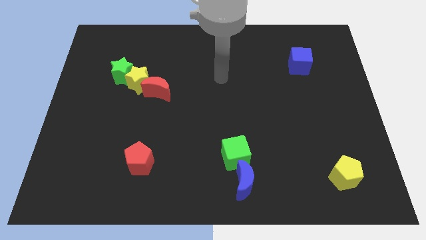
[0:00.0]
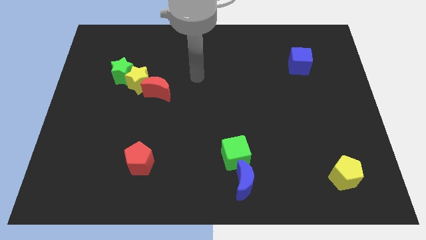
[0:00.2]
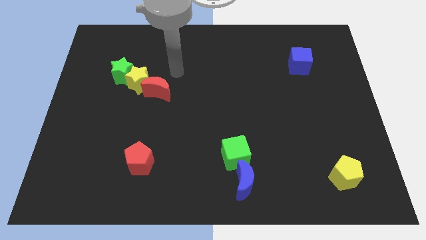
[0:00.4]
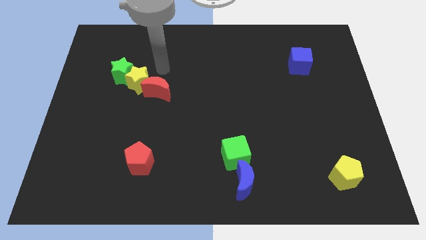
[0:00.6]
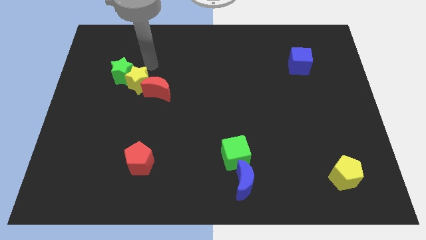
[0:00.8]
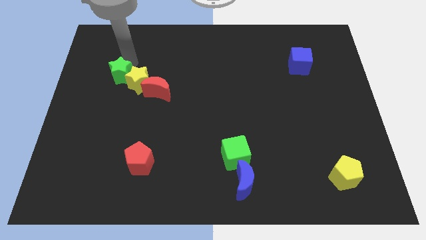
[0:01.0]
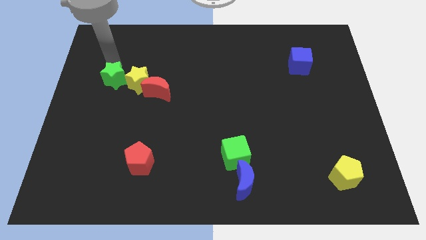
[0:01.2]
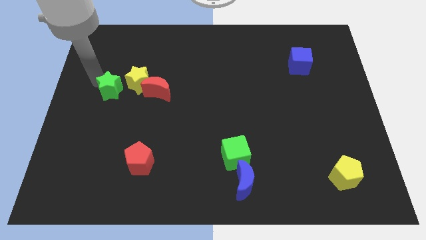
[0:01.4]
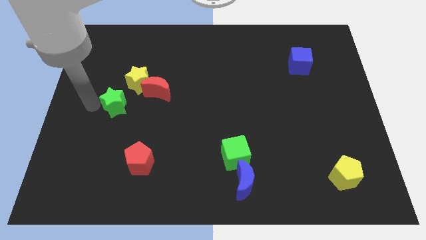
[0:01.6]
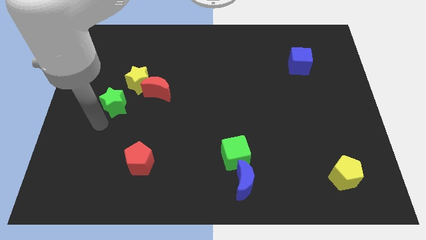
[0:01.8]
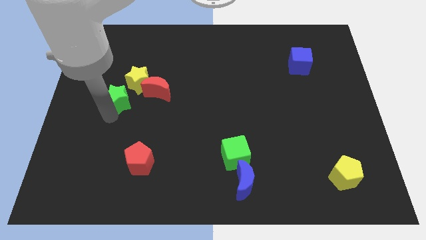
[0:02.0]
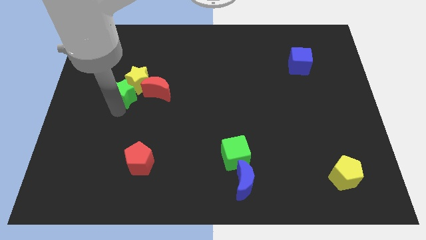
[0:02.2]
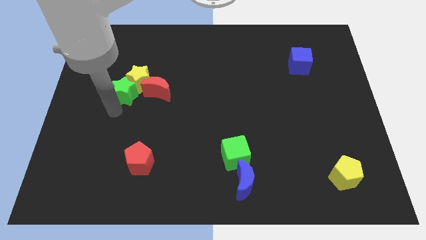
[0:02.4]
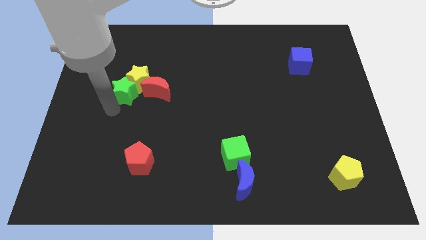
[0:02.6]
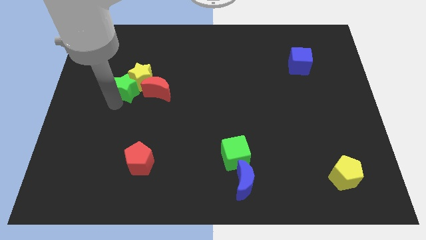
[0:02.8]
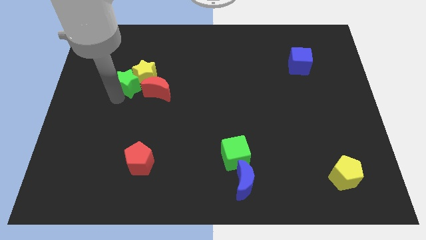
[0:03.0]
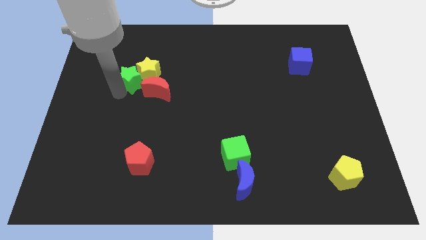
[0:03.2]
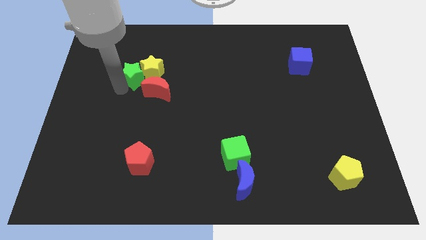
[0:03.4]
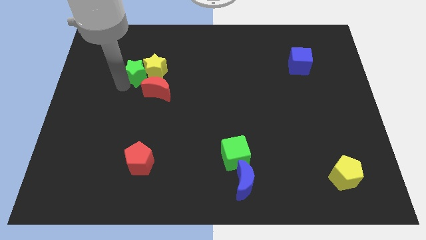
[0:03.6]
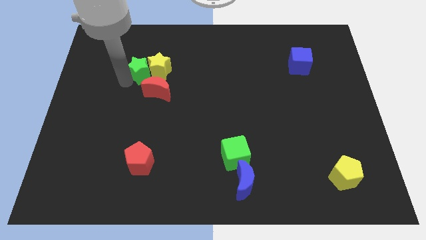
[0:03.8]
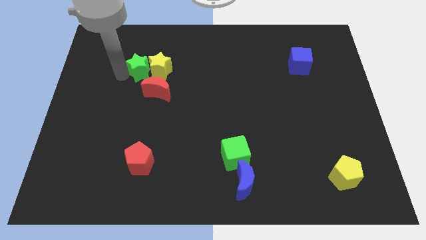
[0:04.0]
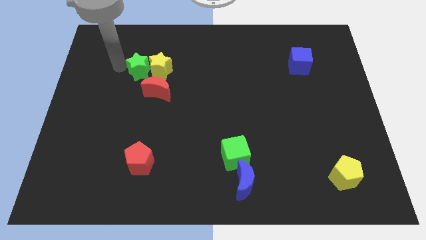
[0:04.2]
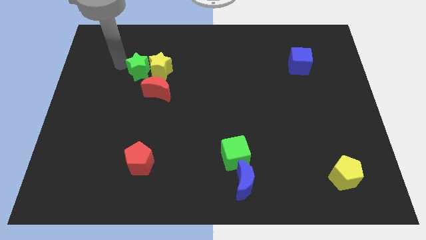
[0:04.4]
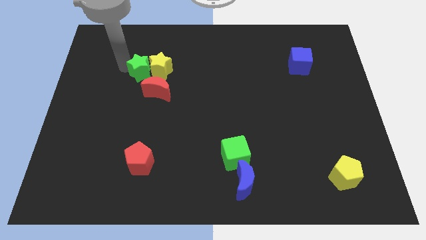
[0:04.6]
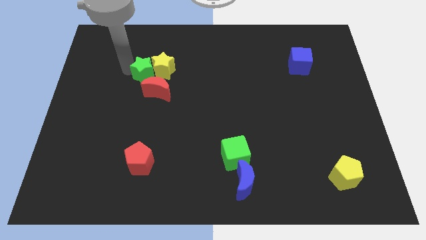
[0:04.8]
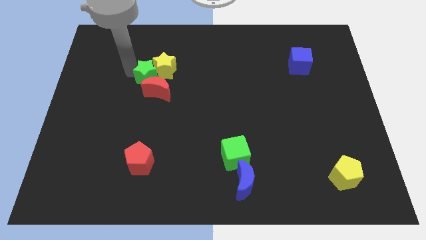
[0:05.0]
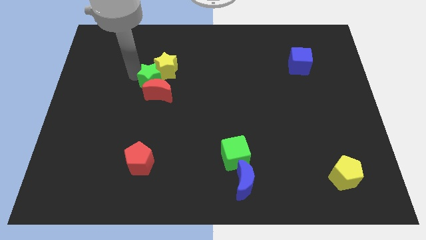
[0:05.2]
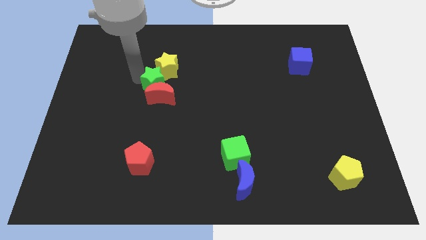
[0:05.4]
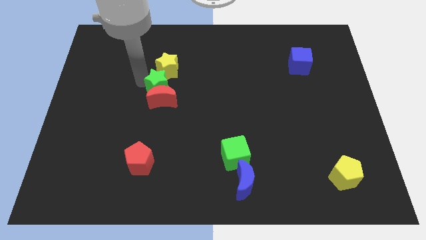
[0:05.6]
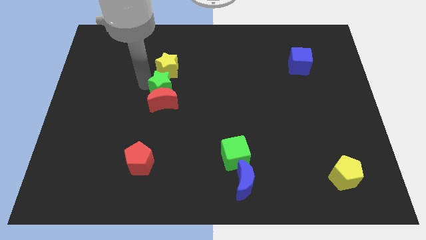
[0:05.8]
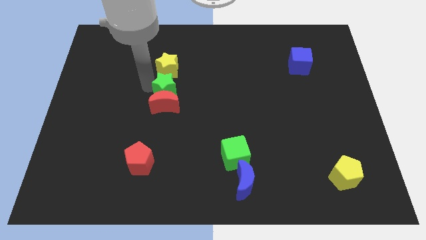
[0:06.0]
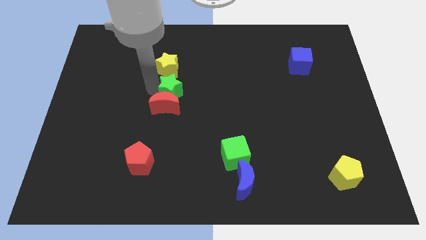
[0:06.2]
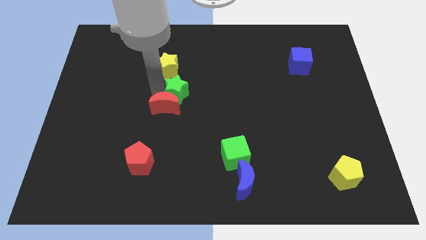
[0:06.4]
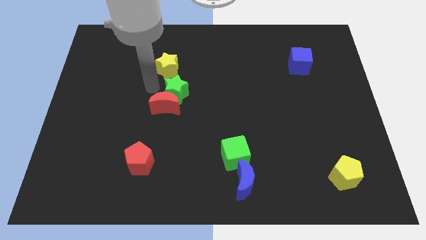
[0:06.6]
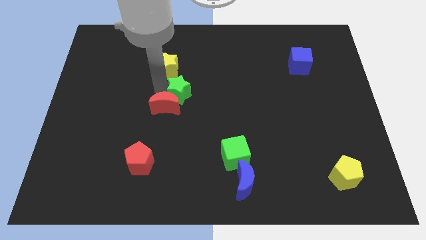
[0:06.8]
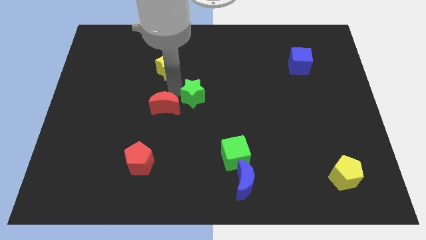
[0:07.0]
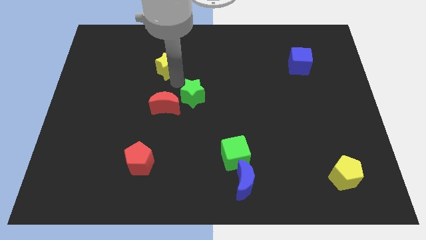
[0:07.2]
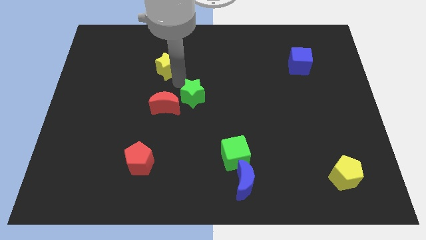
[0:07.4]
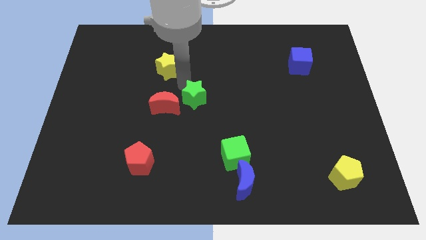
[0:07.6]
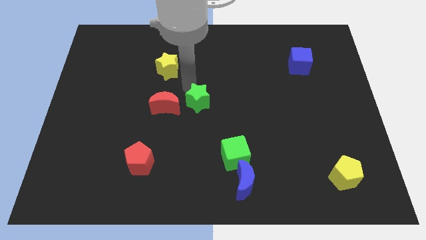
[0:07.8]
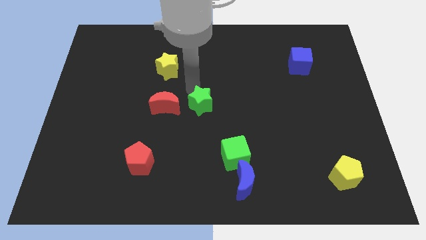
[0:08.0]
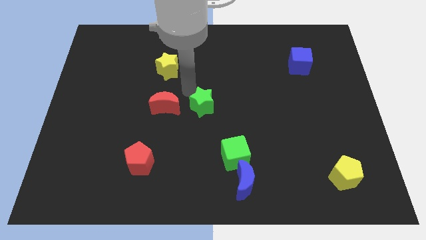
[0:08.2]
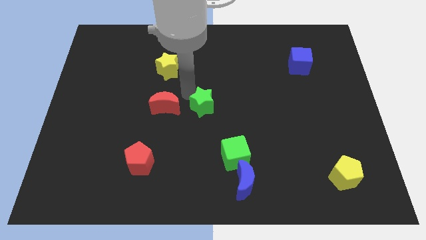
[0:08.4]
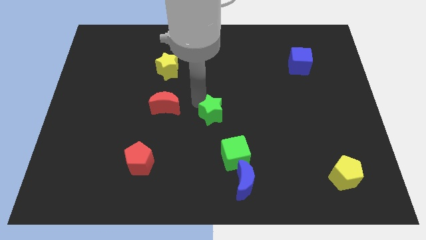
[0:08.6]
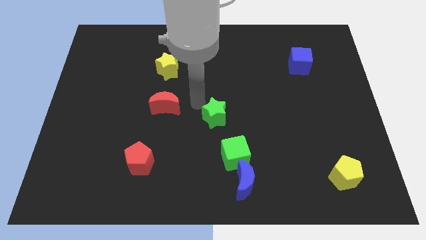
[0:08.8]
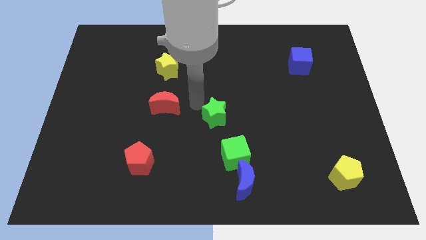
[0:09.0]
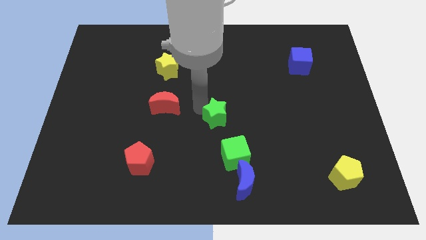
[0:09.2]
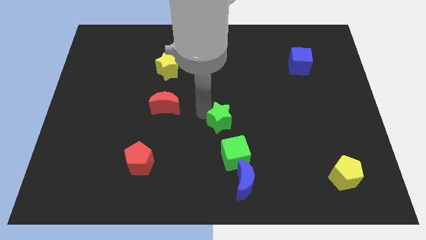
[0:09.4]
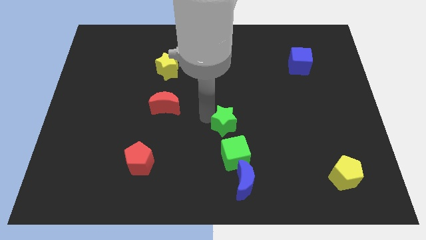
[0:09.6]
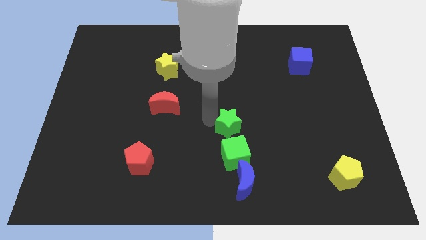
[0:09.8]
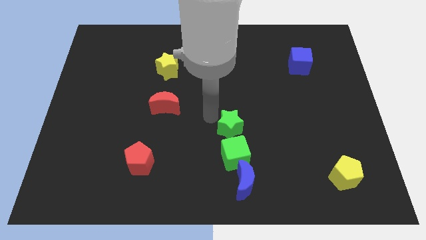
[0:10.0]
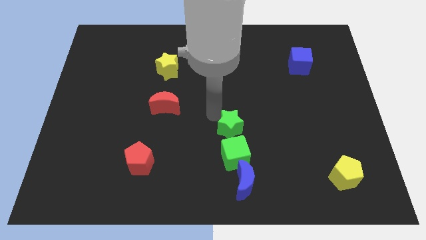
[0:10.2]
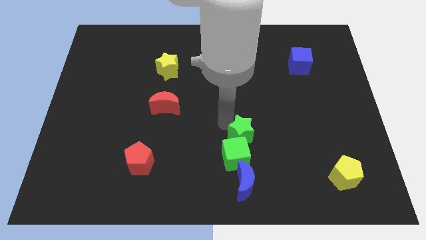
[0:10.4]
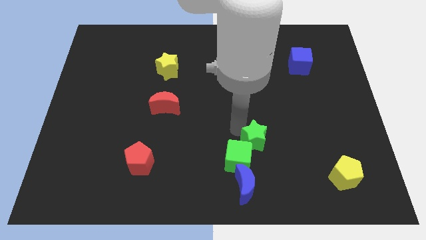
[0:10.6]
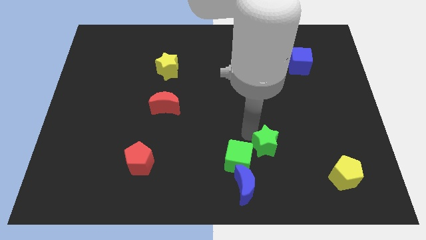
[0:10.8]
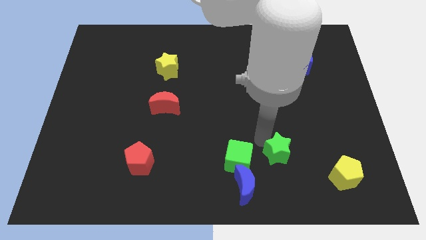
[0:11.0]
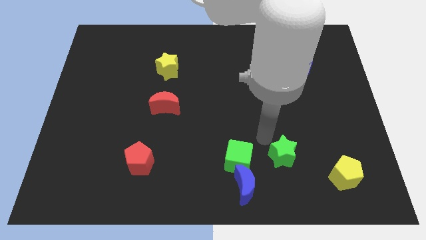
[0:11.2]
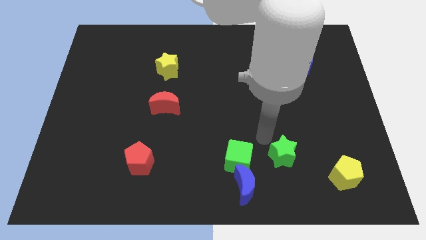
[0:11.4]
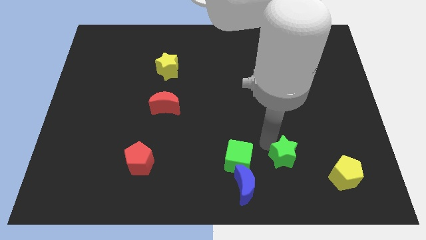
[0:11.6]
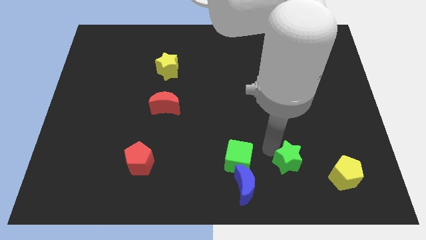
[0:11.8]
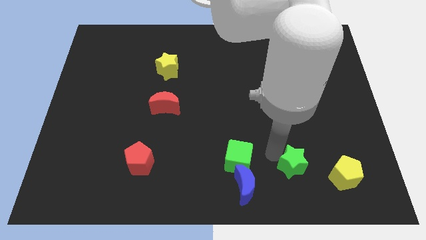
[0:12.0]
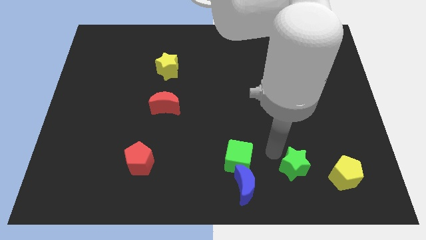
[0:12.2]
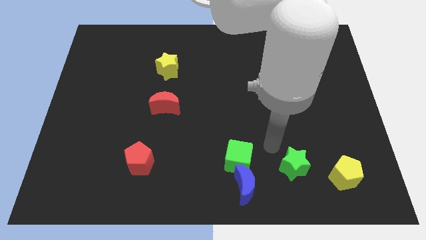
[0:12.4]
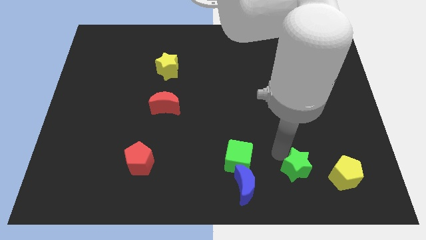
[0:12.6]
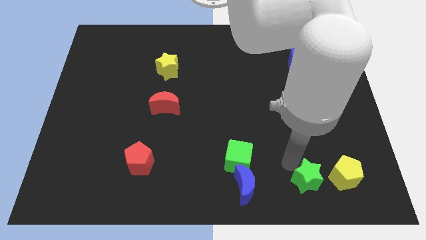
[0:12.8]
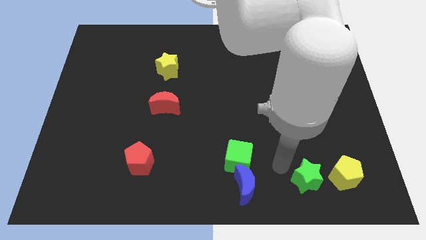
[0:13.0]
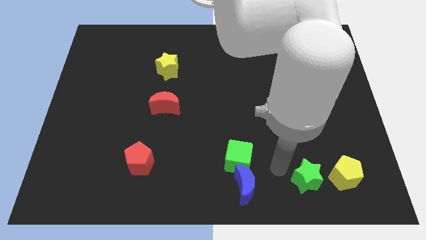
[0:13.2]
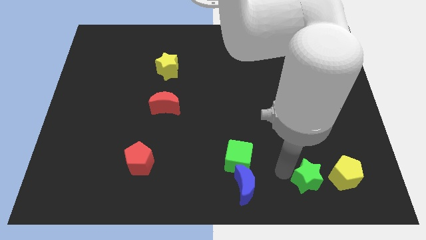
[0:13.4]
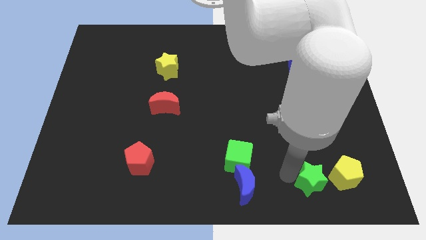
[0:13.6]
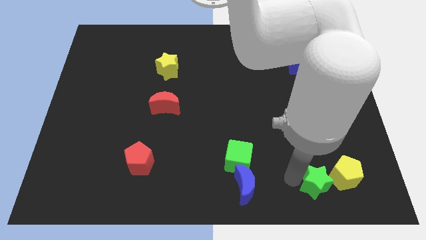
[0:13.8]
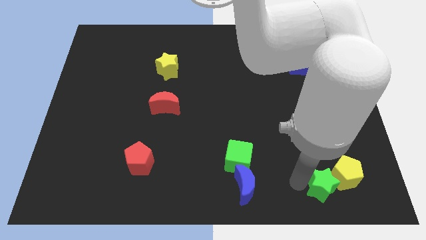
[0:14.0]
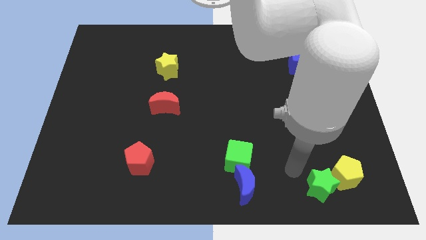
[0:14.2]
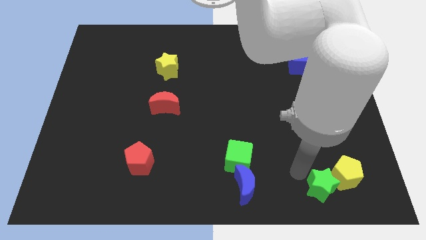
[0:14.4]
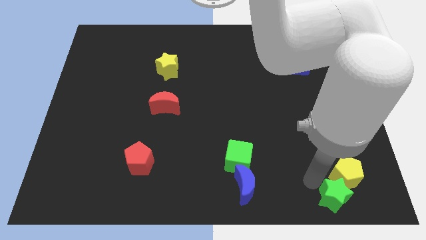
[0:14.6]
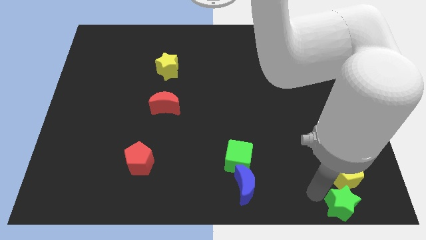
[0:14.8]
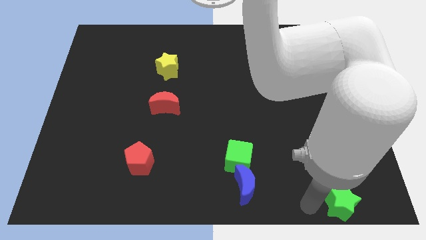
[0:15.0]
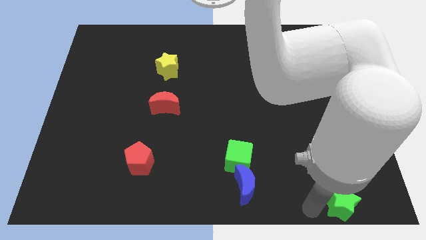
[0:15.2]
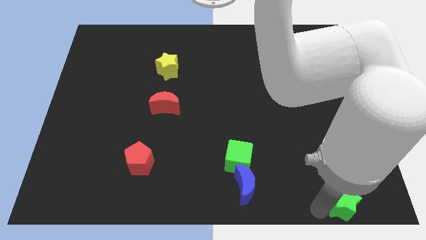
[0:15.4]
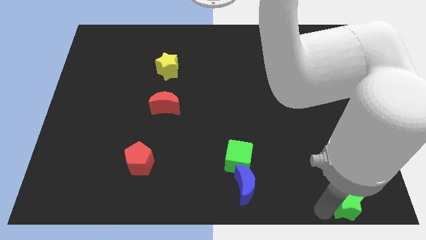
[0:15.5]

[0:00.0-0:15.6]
move the green star to the bottom right of the board
